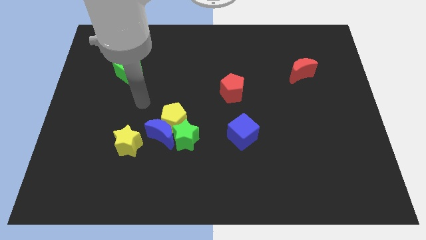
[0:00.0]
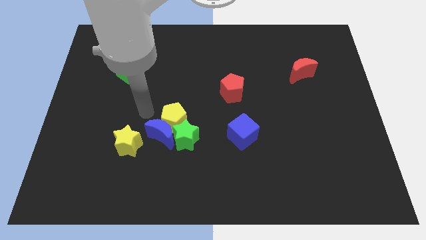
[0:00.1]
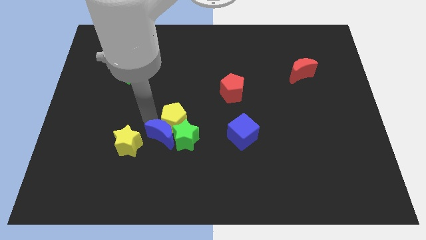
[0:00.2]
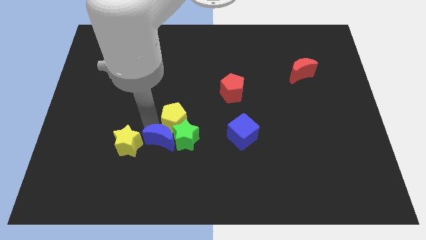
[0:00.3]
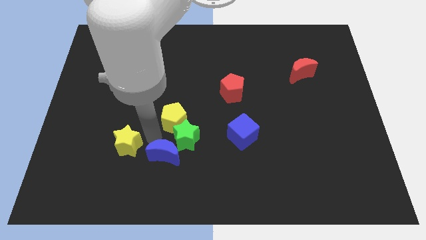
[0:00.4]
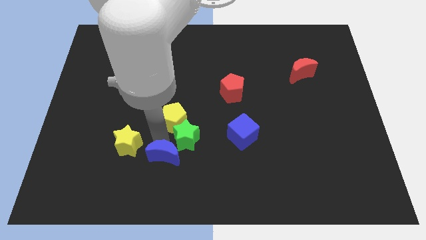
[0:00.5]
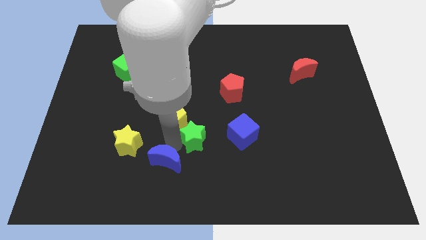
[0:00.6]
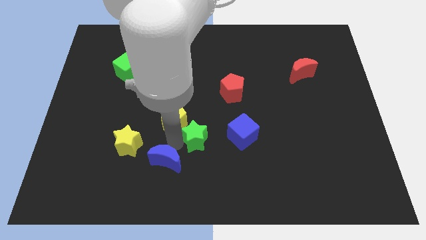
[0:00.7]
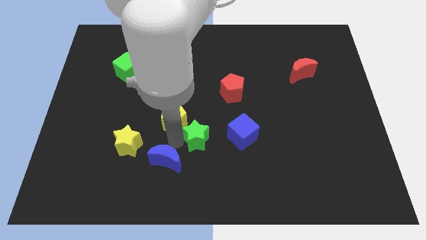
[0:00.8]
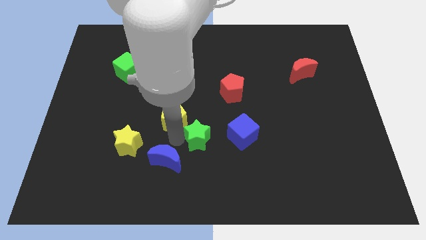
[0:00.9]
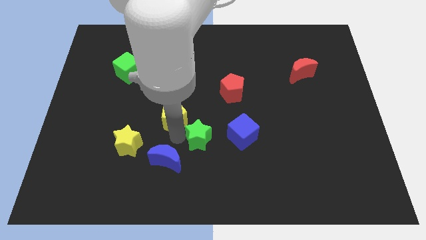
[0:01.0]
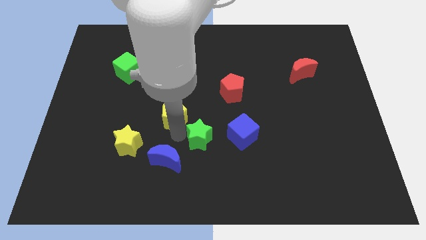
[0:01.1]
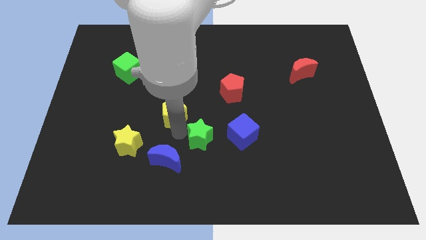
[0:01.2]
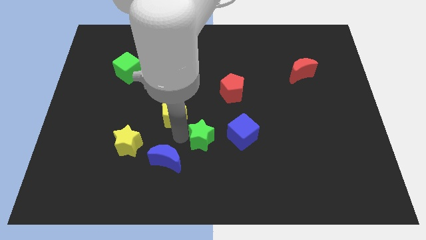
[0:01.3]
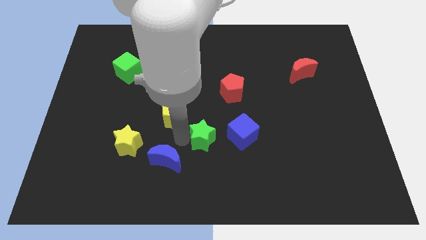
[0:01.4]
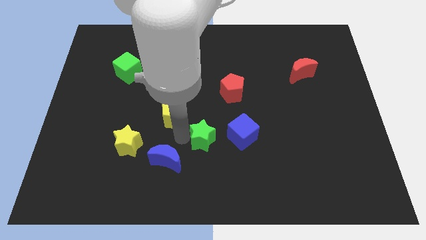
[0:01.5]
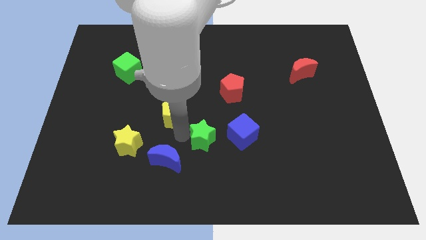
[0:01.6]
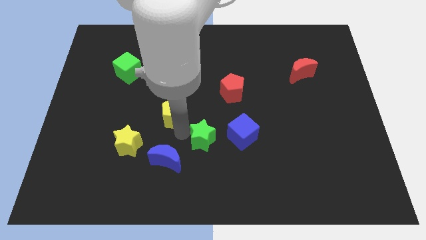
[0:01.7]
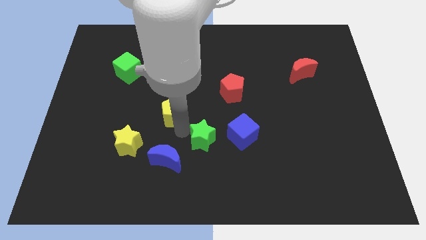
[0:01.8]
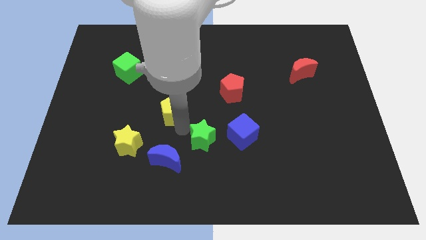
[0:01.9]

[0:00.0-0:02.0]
move the yellow pentagon away from the blue moon and green star

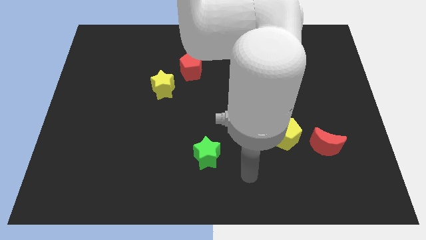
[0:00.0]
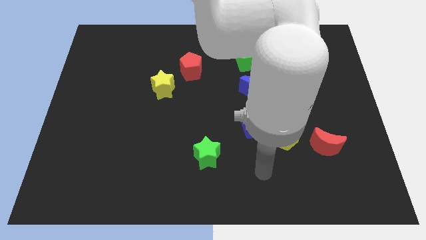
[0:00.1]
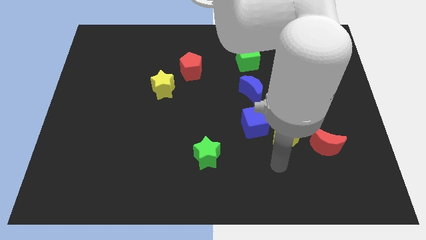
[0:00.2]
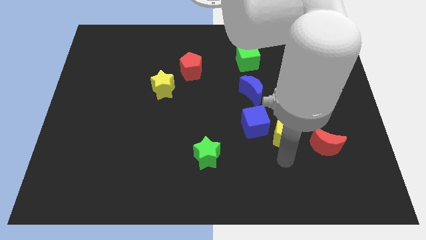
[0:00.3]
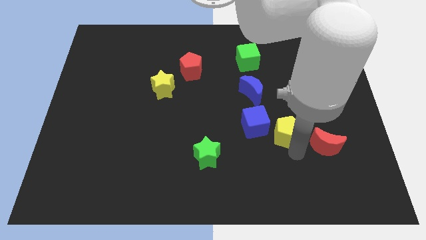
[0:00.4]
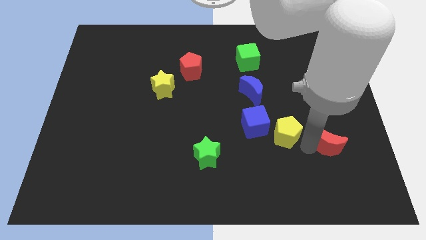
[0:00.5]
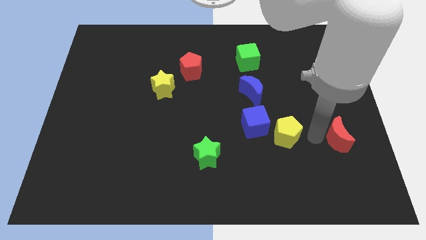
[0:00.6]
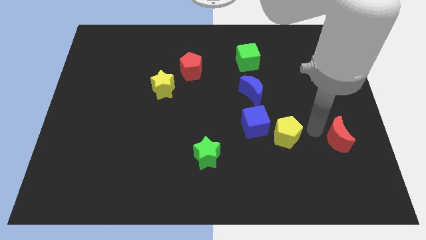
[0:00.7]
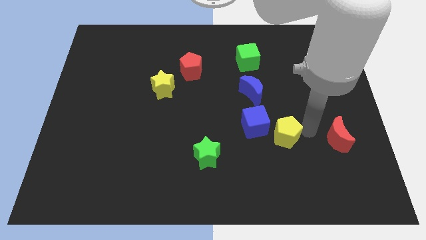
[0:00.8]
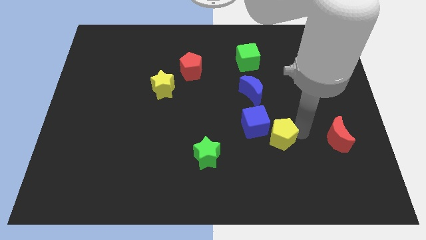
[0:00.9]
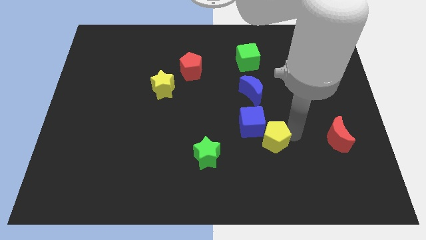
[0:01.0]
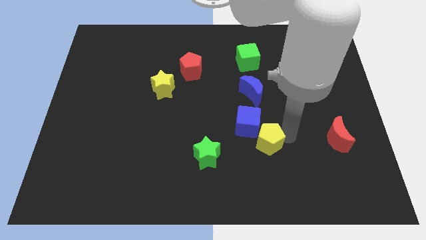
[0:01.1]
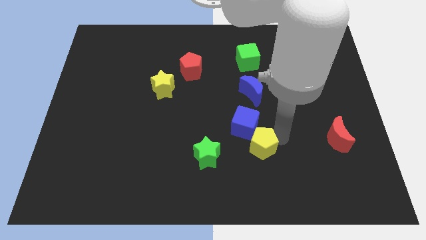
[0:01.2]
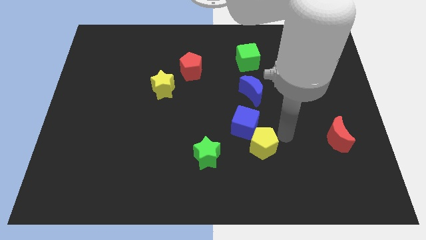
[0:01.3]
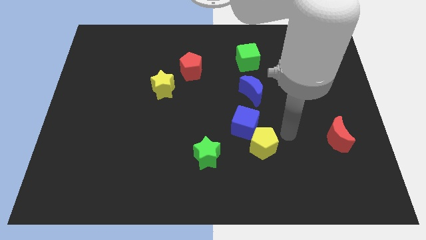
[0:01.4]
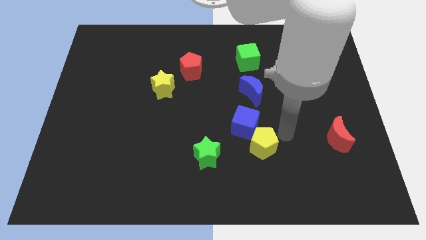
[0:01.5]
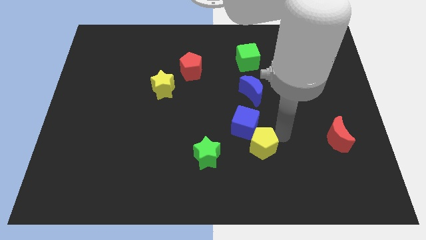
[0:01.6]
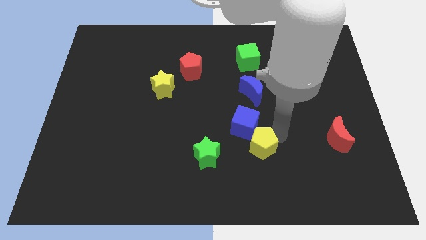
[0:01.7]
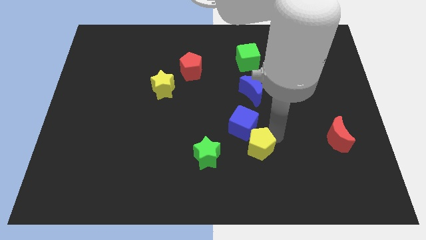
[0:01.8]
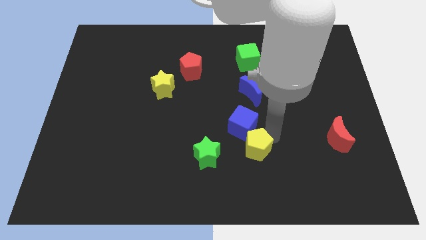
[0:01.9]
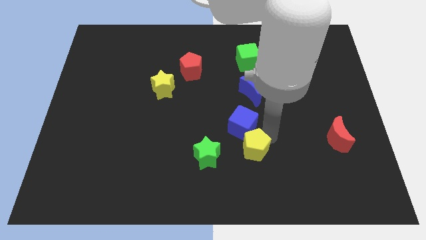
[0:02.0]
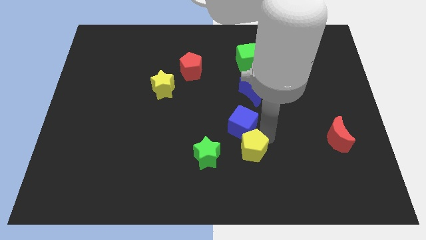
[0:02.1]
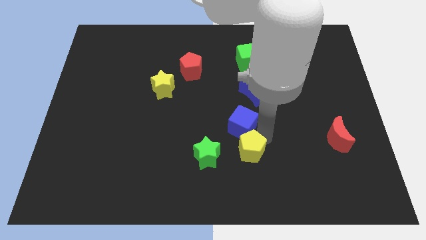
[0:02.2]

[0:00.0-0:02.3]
move the yellow pentagon away from the blue cube and red moon

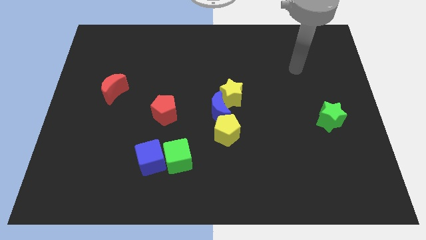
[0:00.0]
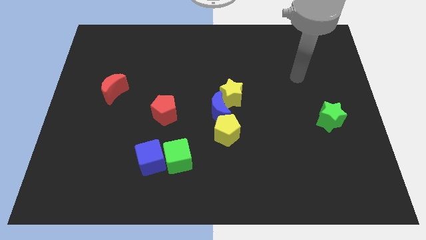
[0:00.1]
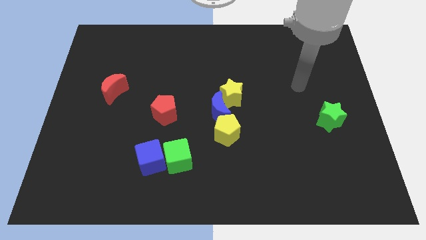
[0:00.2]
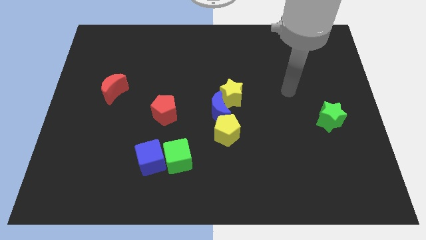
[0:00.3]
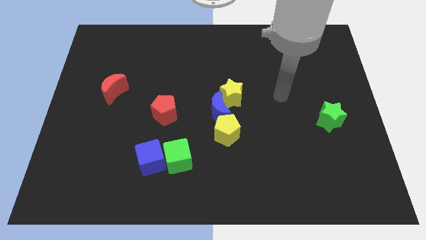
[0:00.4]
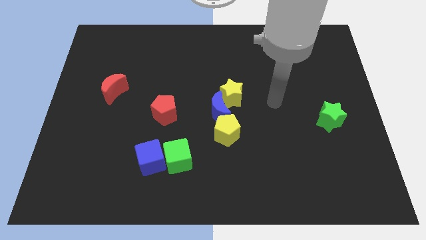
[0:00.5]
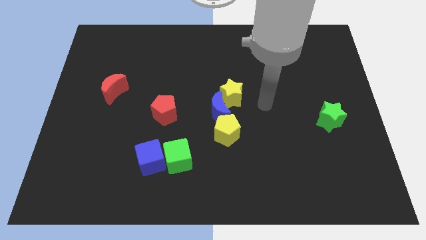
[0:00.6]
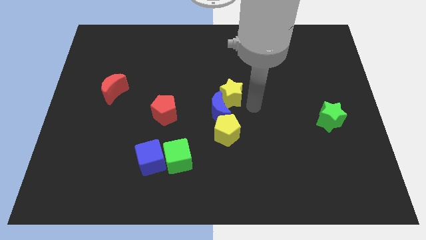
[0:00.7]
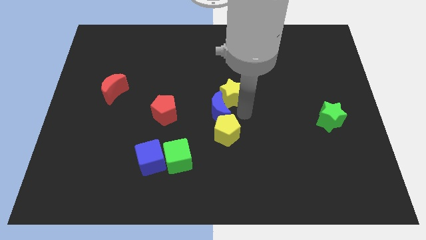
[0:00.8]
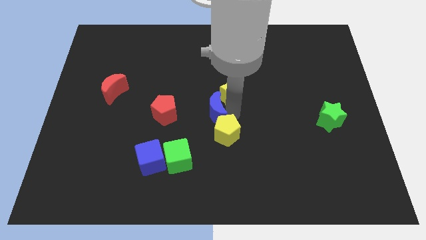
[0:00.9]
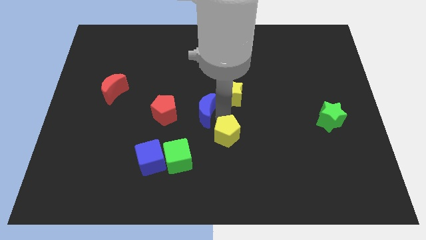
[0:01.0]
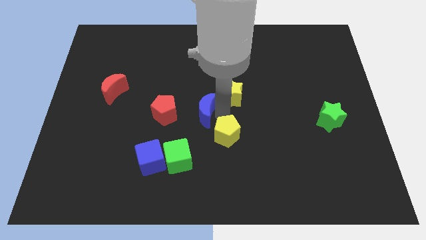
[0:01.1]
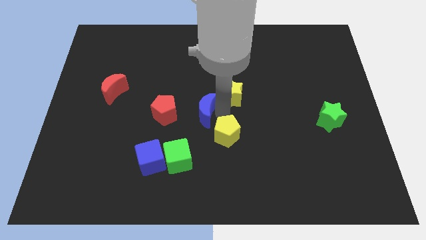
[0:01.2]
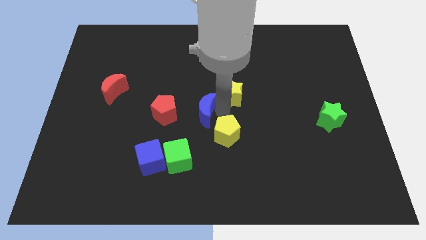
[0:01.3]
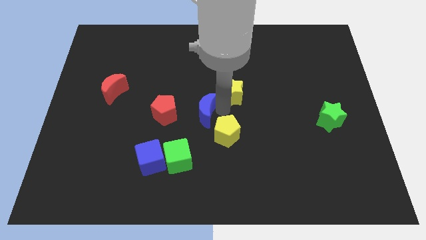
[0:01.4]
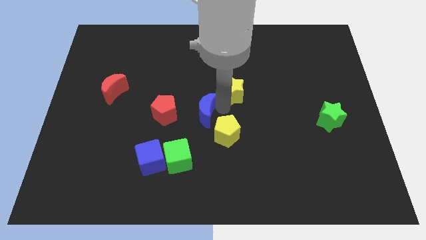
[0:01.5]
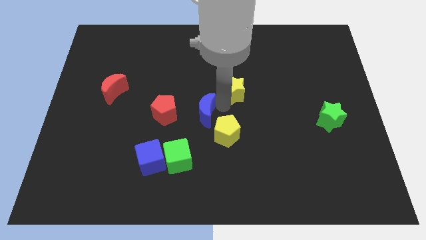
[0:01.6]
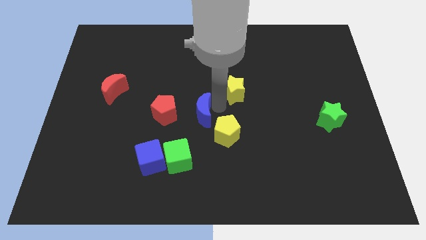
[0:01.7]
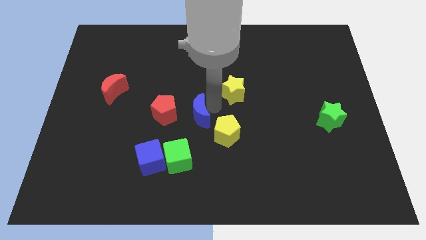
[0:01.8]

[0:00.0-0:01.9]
separate the yellow star from the blue moon

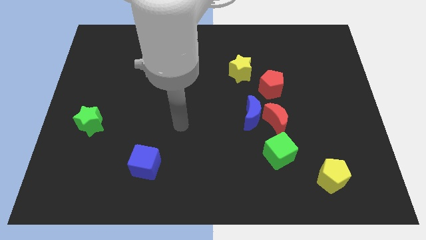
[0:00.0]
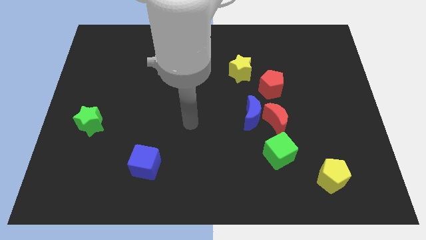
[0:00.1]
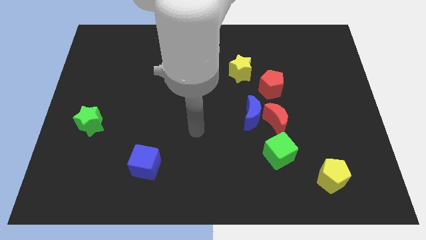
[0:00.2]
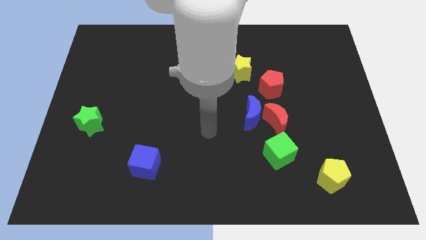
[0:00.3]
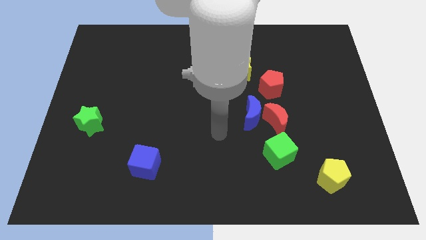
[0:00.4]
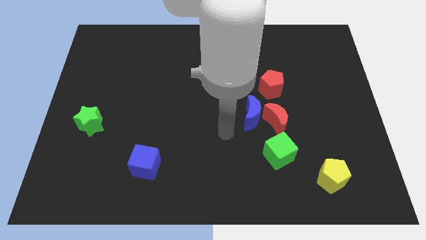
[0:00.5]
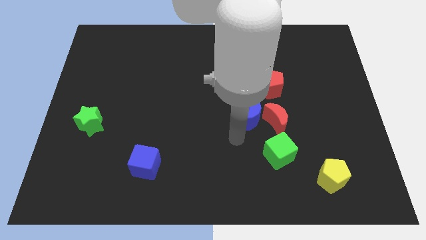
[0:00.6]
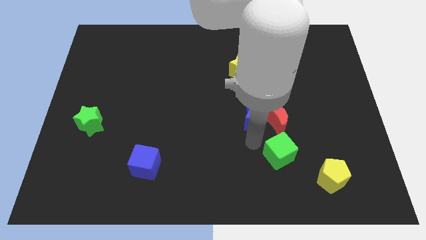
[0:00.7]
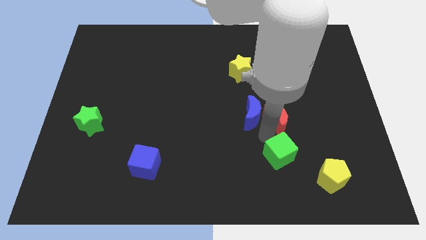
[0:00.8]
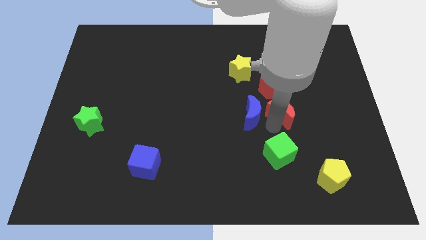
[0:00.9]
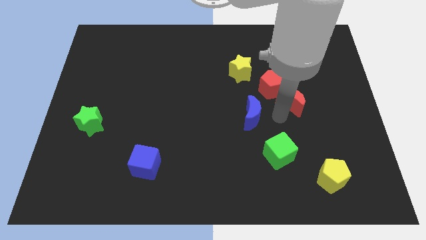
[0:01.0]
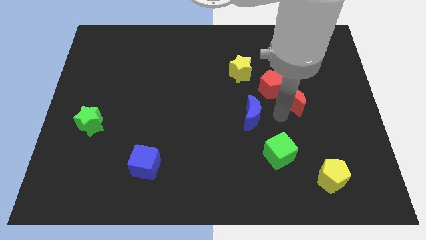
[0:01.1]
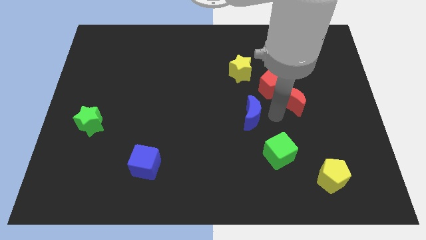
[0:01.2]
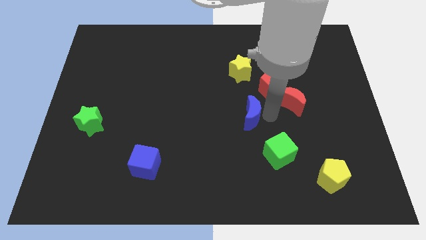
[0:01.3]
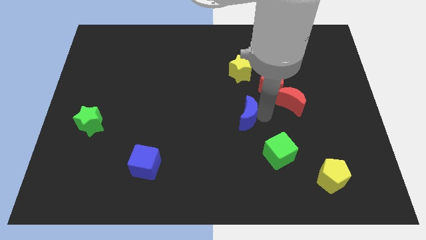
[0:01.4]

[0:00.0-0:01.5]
move the blue moon away from the red moon and red pentagon

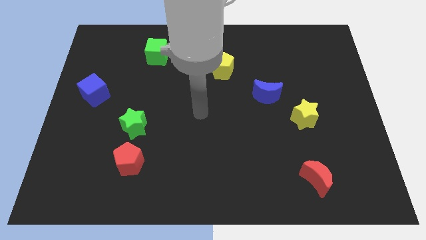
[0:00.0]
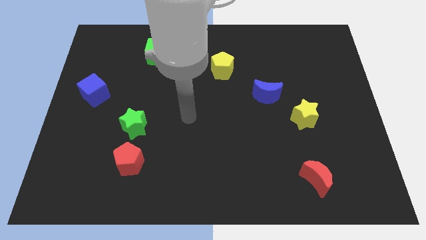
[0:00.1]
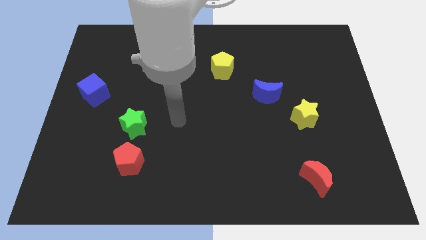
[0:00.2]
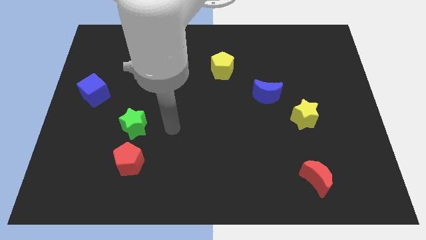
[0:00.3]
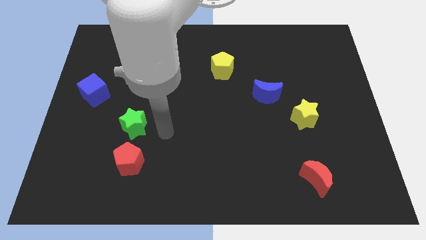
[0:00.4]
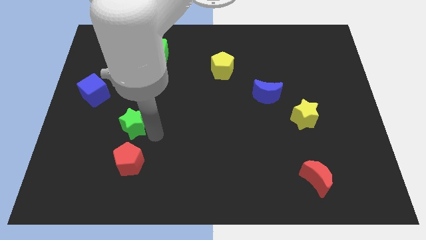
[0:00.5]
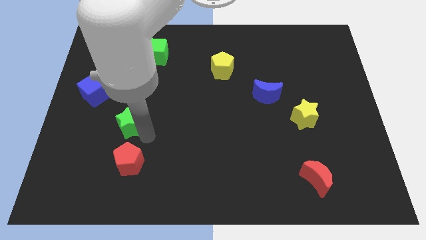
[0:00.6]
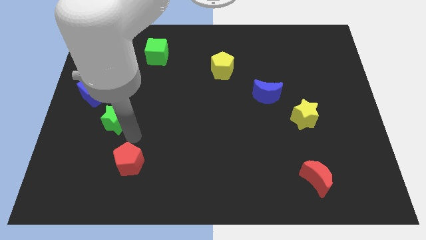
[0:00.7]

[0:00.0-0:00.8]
move the red pentagon away from the green star

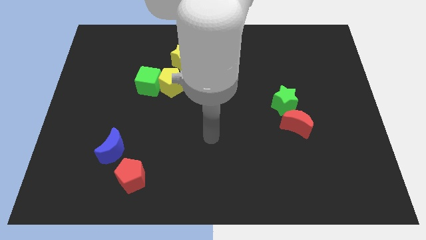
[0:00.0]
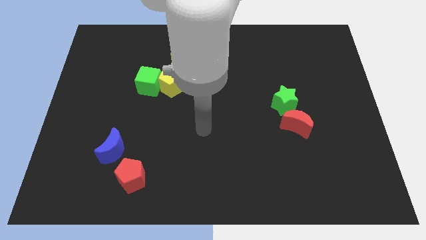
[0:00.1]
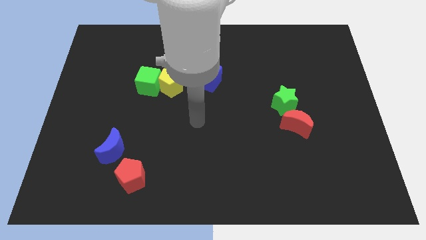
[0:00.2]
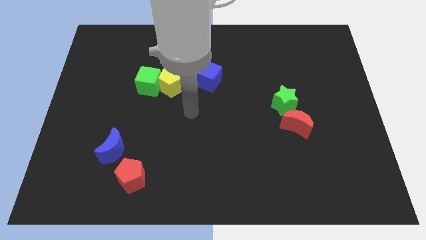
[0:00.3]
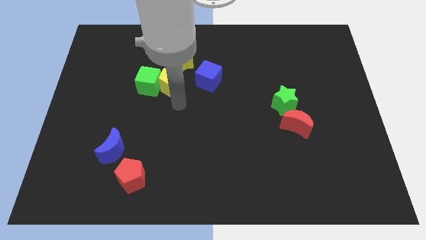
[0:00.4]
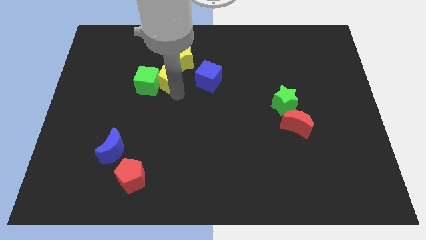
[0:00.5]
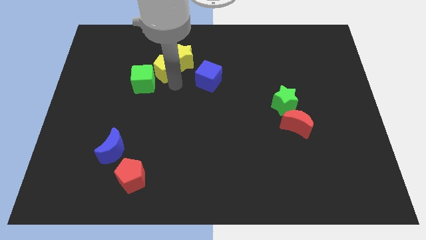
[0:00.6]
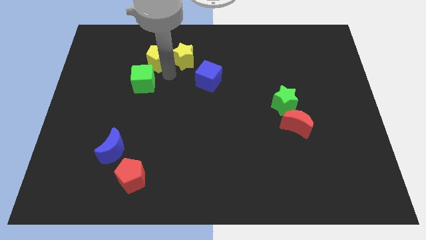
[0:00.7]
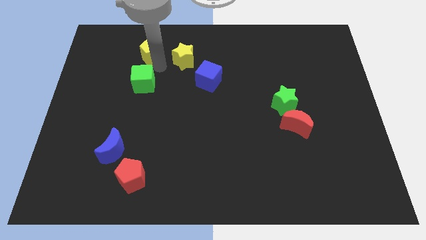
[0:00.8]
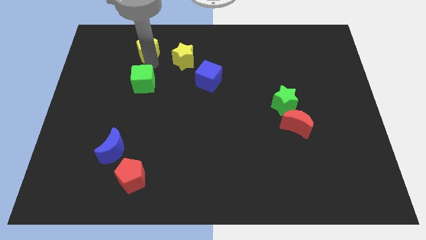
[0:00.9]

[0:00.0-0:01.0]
move the green cube away from the yellow pentagon
